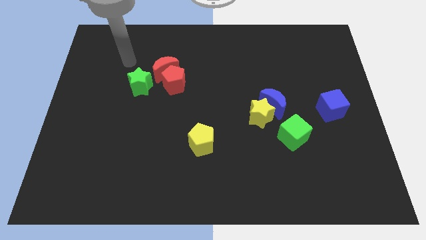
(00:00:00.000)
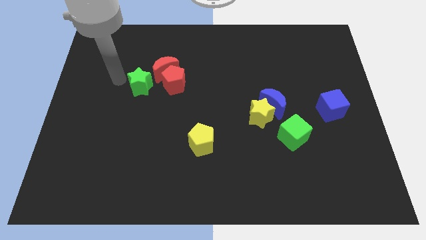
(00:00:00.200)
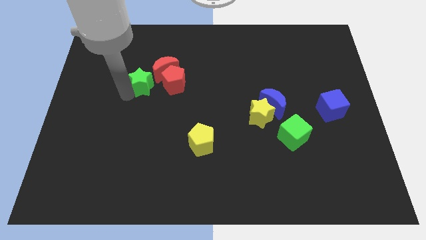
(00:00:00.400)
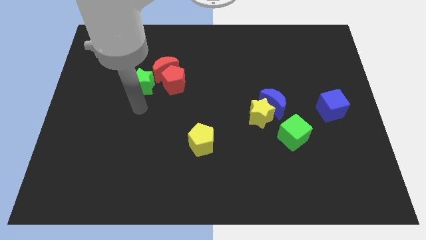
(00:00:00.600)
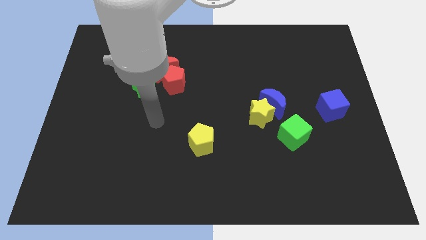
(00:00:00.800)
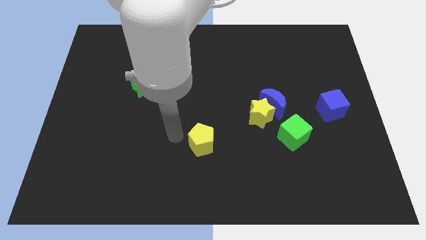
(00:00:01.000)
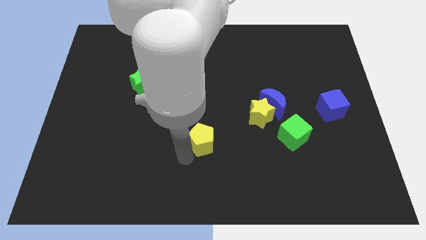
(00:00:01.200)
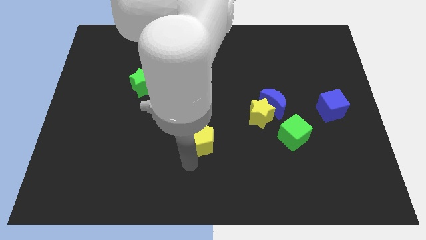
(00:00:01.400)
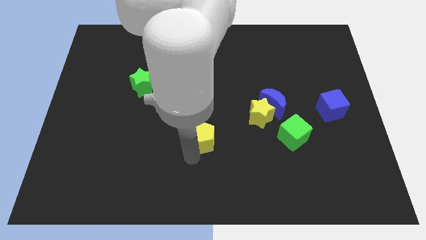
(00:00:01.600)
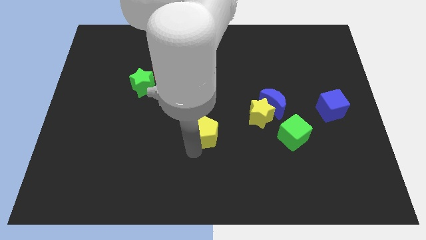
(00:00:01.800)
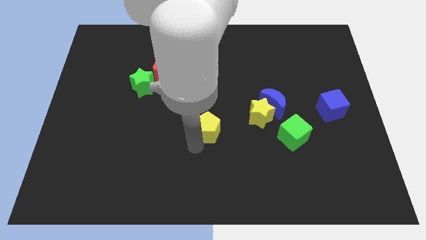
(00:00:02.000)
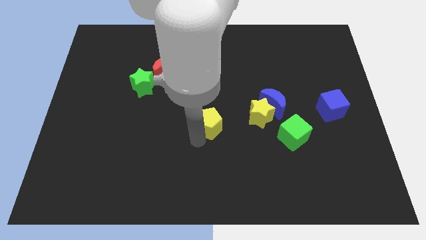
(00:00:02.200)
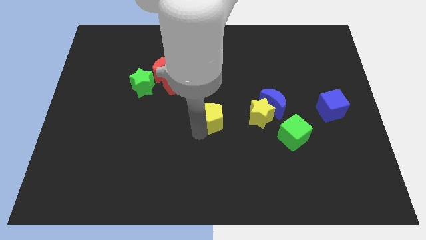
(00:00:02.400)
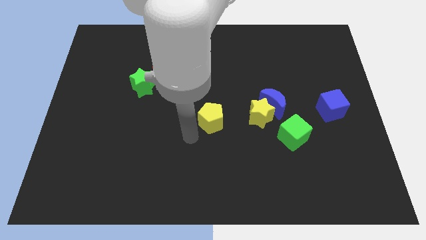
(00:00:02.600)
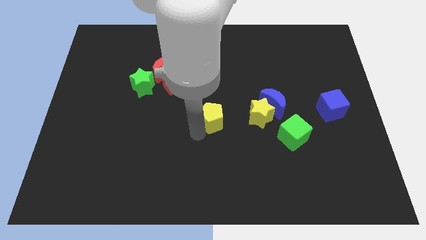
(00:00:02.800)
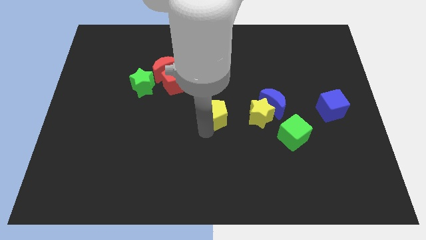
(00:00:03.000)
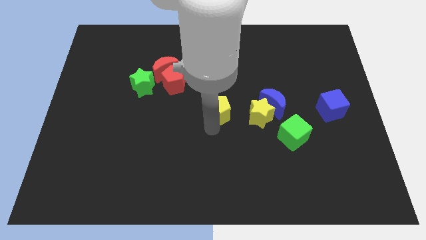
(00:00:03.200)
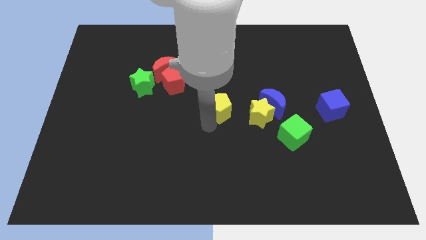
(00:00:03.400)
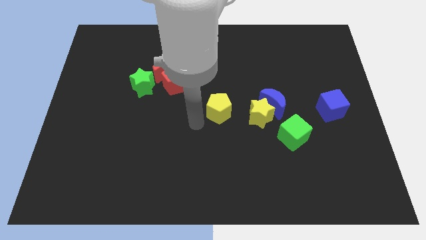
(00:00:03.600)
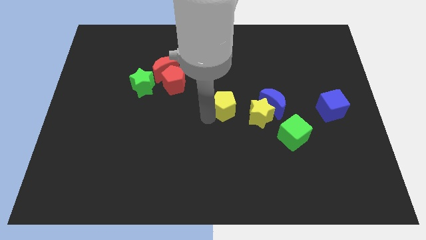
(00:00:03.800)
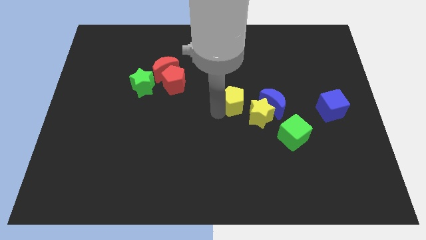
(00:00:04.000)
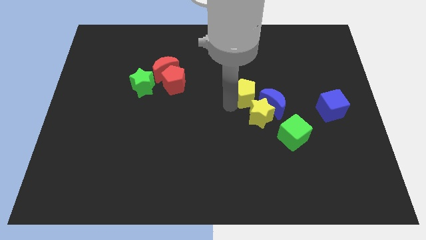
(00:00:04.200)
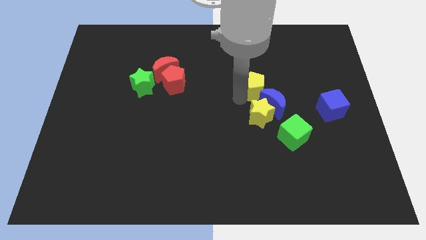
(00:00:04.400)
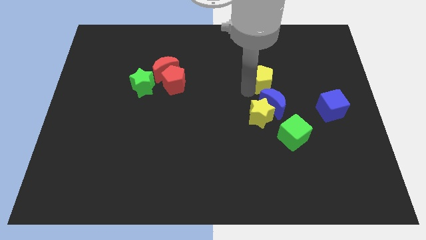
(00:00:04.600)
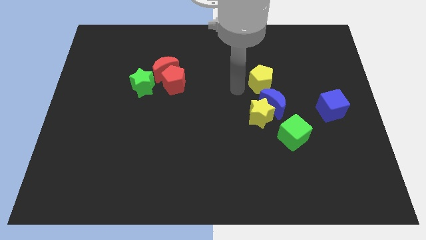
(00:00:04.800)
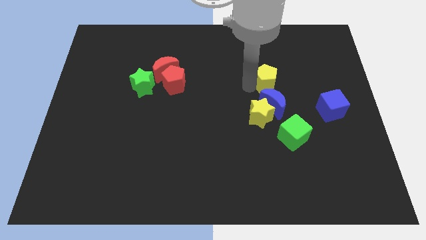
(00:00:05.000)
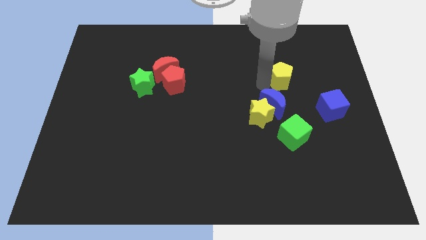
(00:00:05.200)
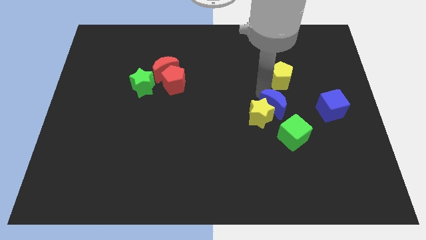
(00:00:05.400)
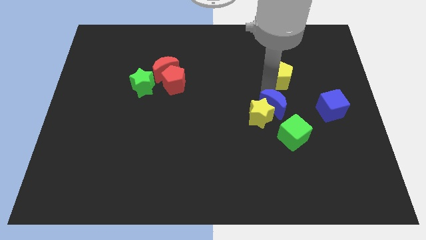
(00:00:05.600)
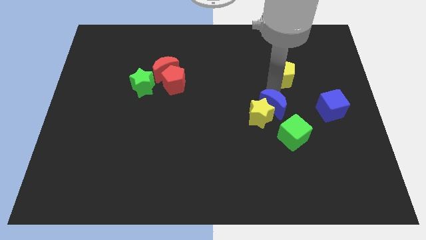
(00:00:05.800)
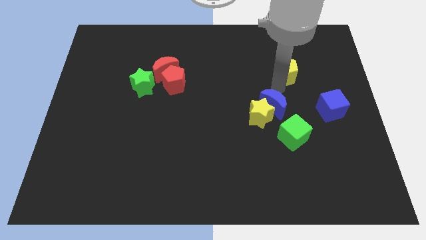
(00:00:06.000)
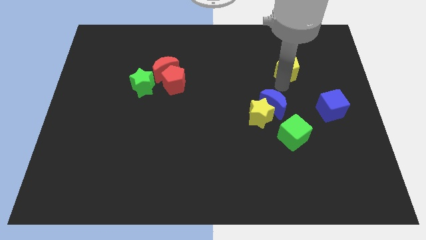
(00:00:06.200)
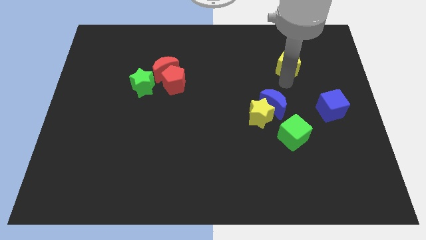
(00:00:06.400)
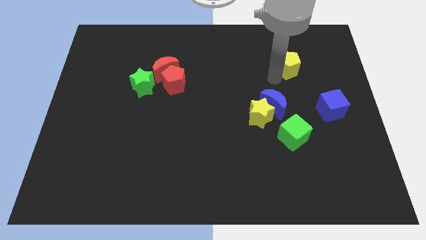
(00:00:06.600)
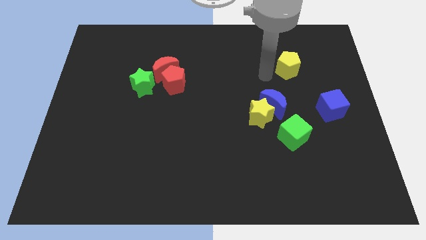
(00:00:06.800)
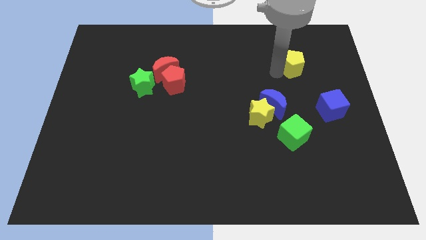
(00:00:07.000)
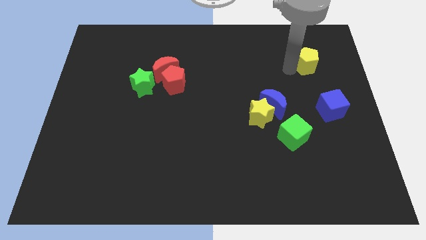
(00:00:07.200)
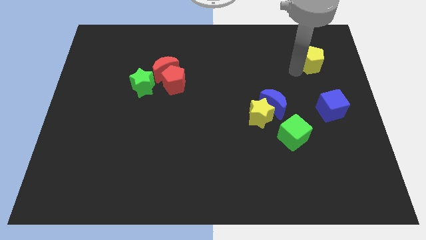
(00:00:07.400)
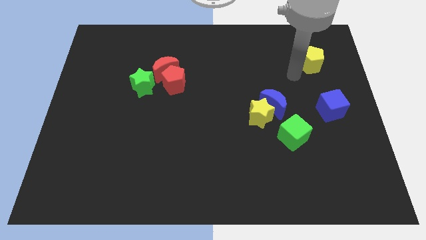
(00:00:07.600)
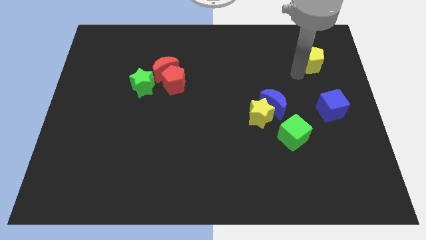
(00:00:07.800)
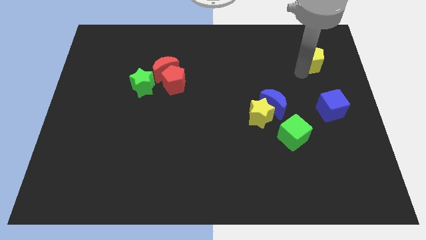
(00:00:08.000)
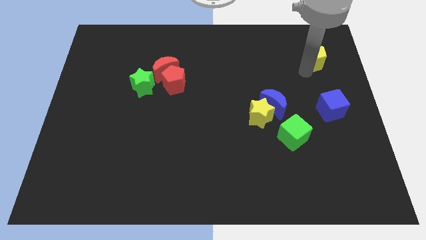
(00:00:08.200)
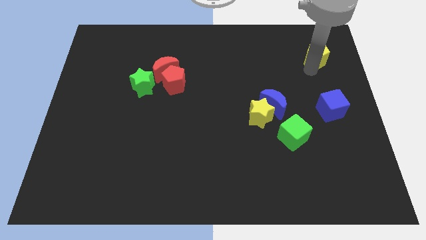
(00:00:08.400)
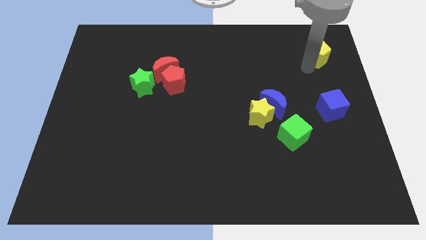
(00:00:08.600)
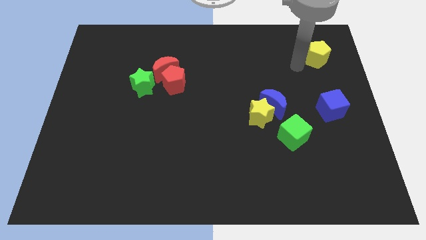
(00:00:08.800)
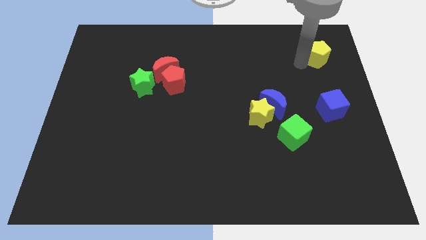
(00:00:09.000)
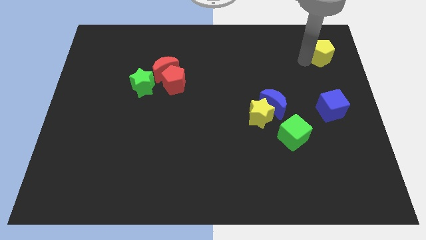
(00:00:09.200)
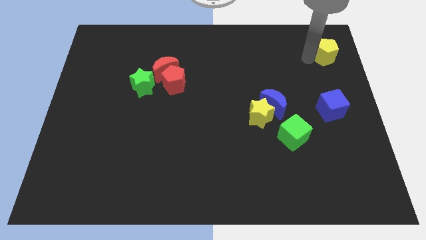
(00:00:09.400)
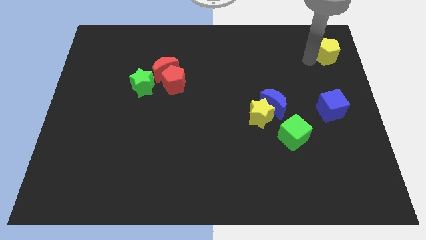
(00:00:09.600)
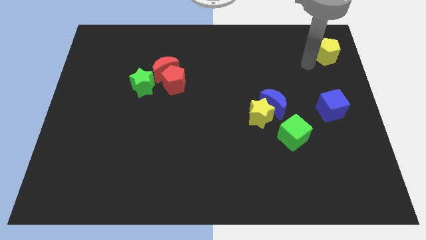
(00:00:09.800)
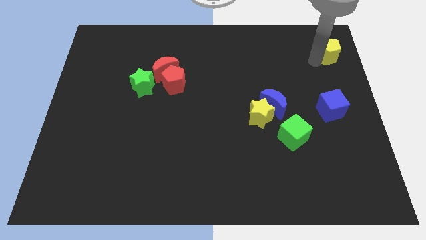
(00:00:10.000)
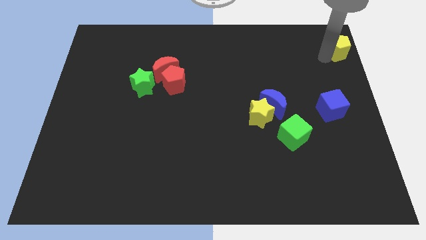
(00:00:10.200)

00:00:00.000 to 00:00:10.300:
slide the yellow pentagon to the top right corner
